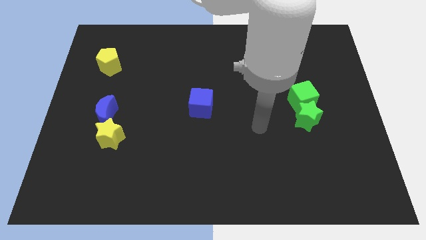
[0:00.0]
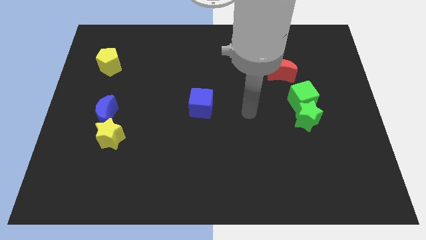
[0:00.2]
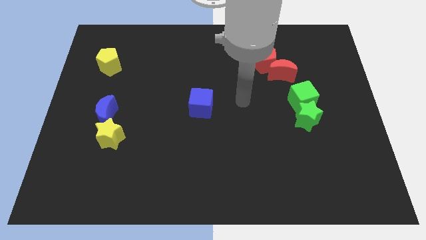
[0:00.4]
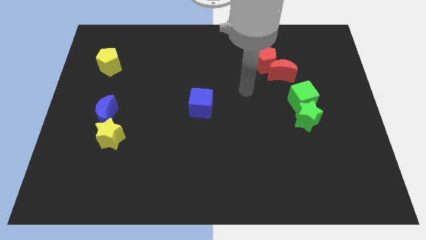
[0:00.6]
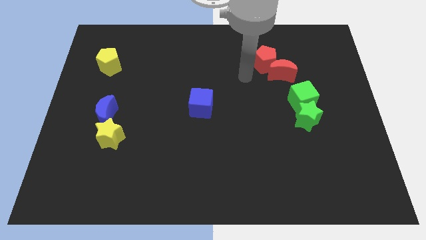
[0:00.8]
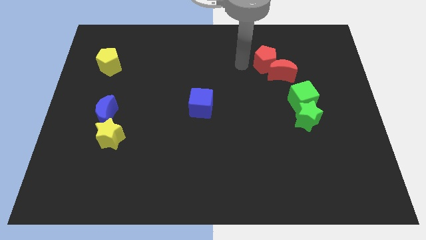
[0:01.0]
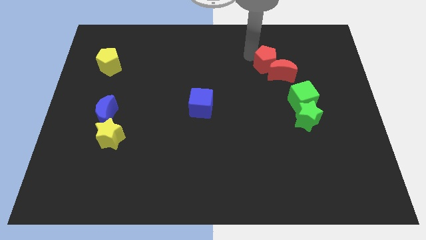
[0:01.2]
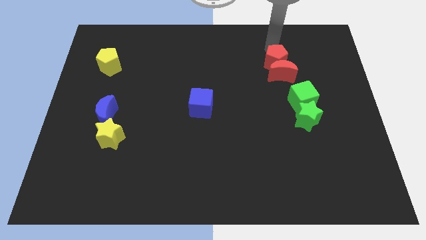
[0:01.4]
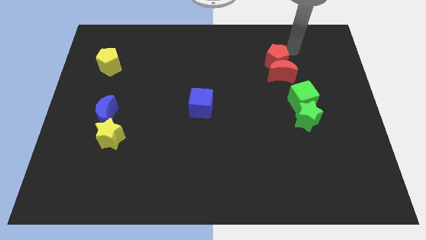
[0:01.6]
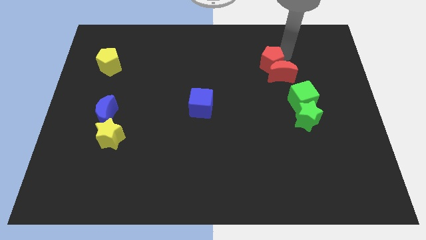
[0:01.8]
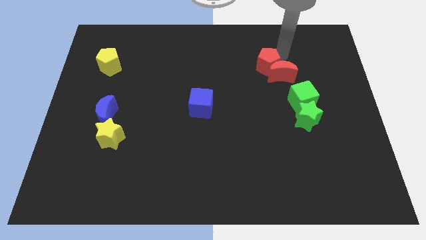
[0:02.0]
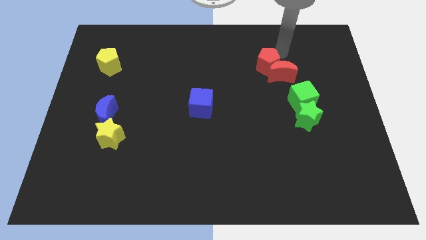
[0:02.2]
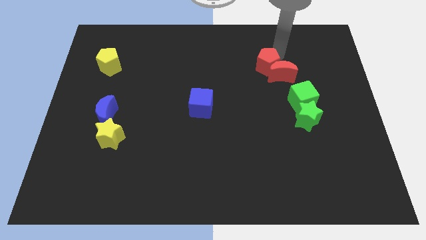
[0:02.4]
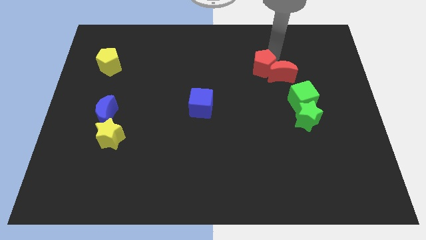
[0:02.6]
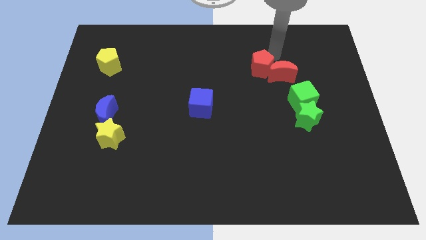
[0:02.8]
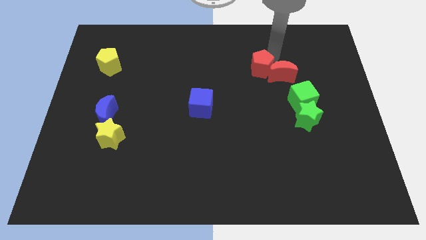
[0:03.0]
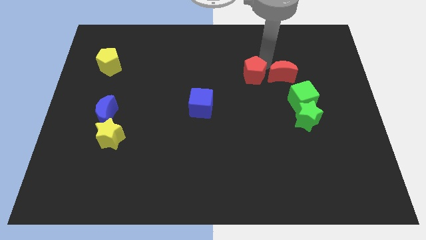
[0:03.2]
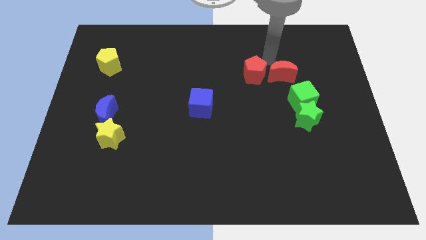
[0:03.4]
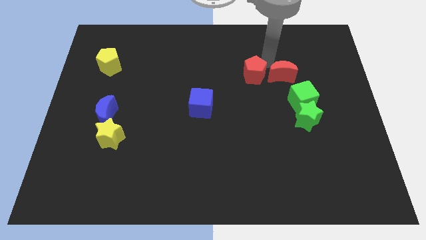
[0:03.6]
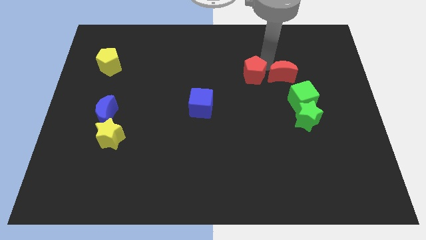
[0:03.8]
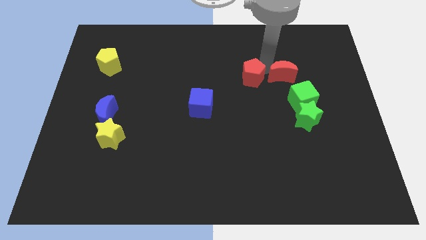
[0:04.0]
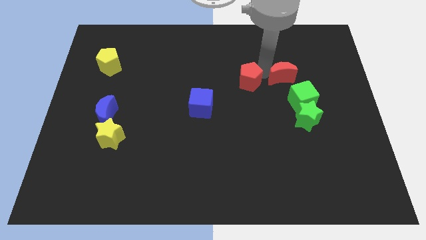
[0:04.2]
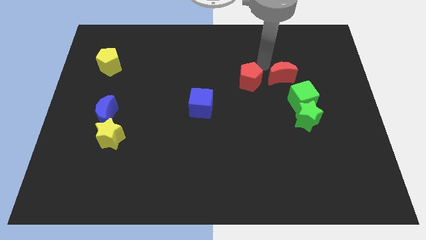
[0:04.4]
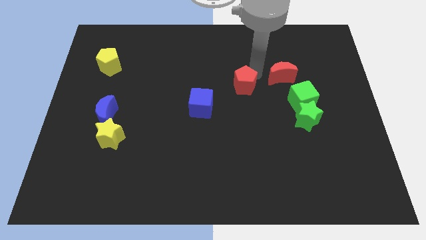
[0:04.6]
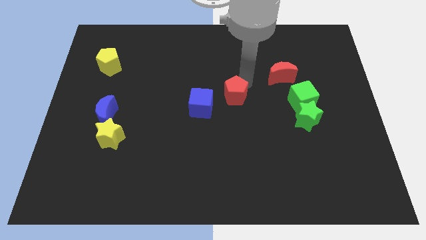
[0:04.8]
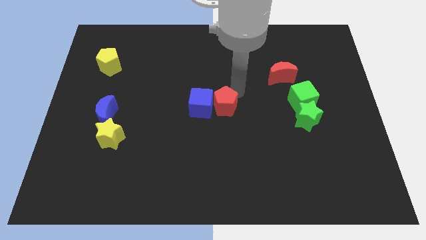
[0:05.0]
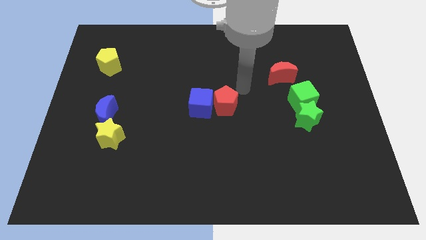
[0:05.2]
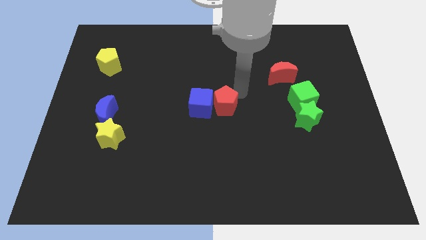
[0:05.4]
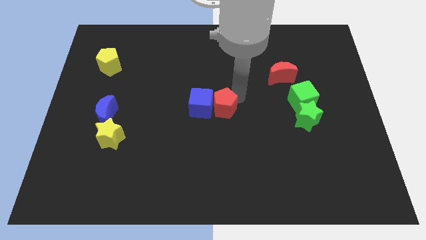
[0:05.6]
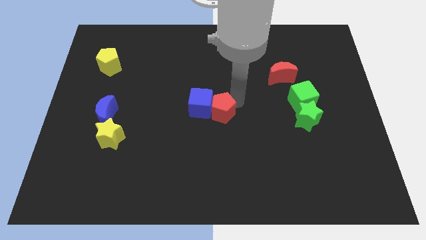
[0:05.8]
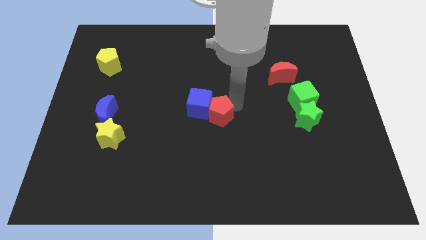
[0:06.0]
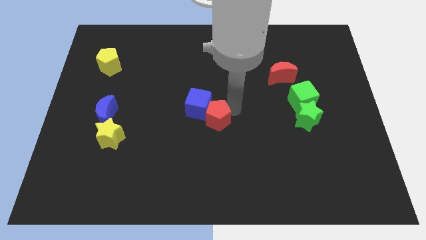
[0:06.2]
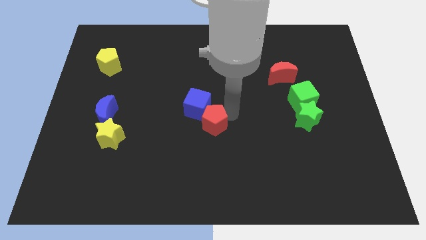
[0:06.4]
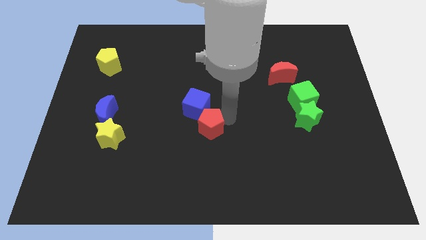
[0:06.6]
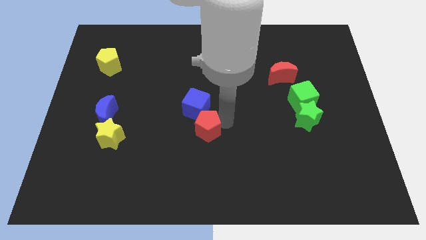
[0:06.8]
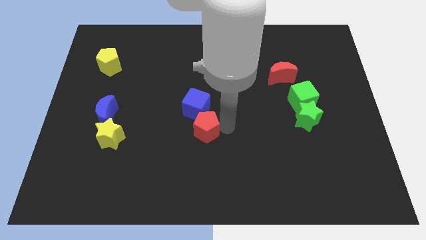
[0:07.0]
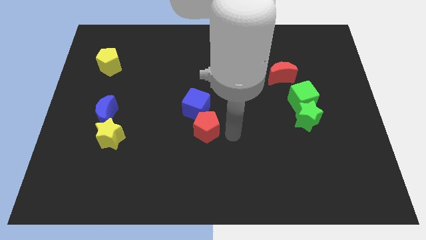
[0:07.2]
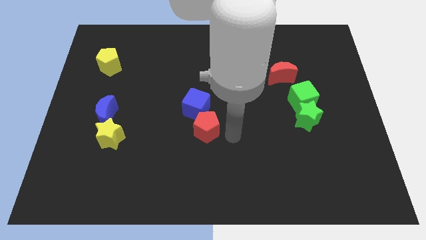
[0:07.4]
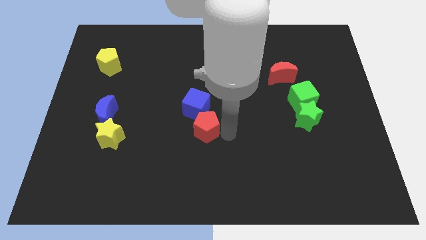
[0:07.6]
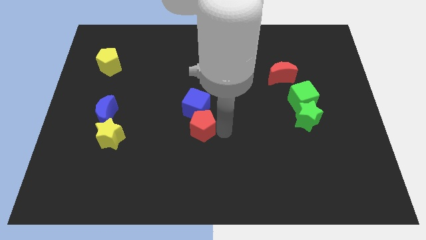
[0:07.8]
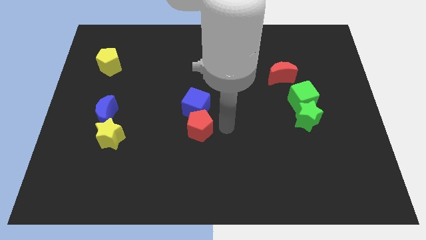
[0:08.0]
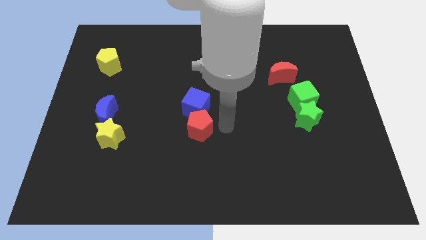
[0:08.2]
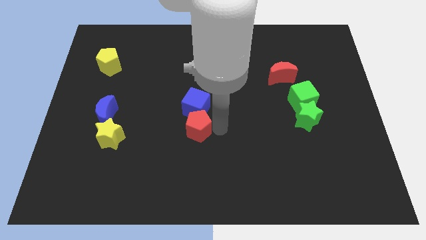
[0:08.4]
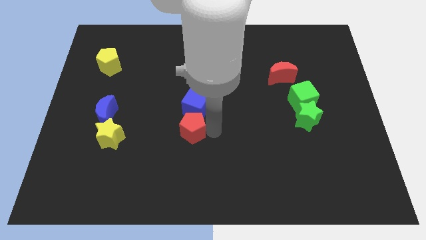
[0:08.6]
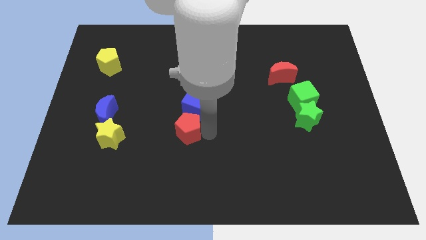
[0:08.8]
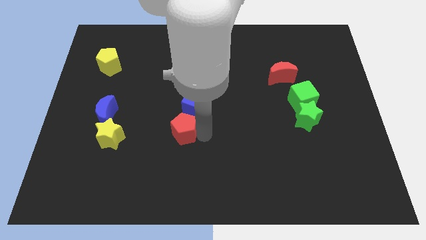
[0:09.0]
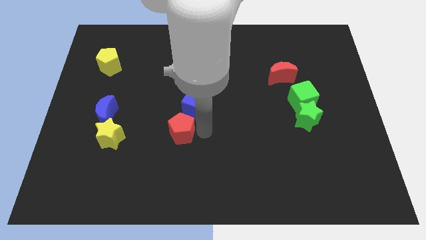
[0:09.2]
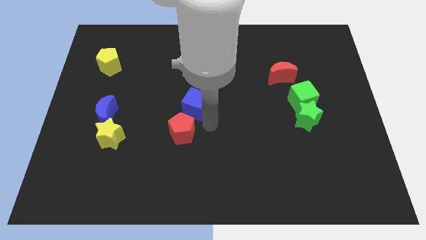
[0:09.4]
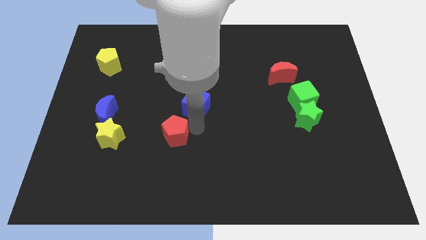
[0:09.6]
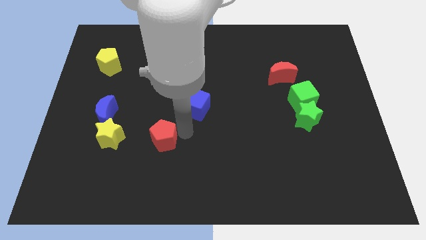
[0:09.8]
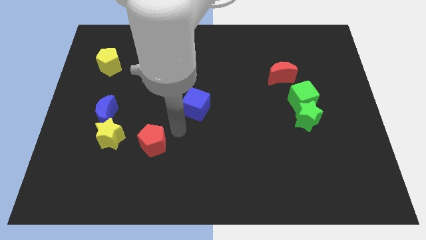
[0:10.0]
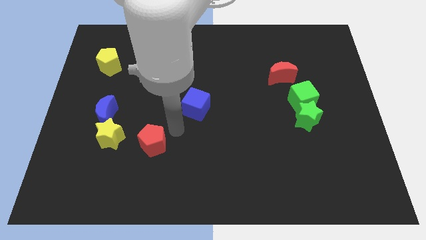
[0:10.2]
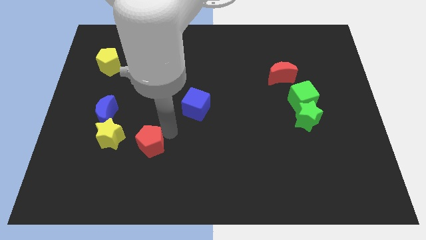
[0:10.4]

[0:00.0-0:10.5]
slide the red pentagon diagonally down and to the right of the yellow star

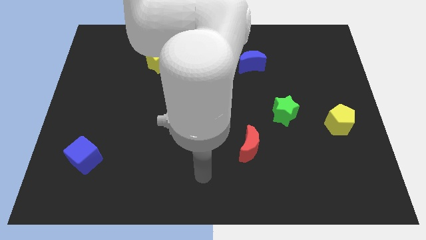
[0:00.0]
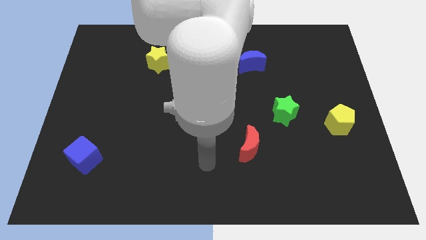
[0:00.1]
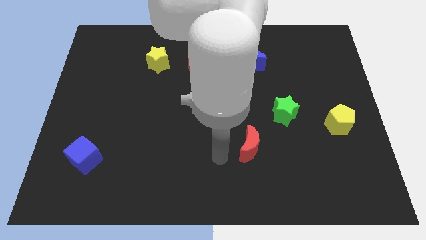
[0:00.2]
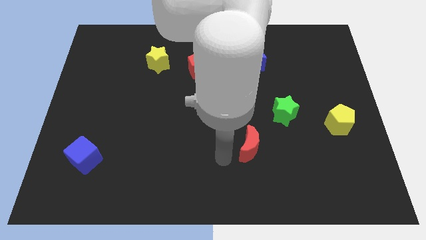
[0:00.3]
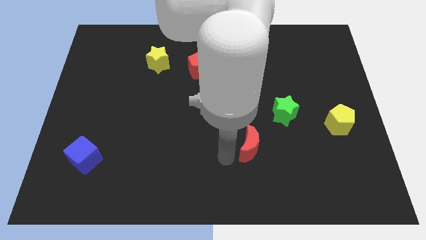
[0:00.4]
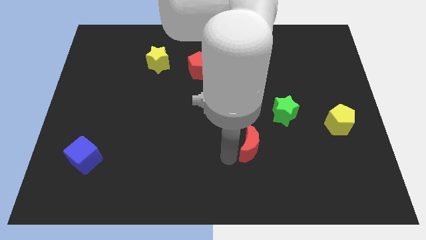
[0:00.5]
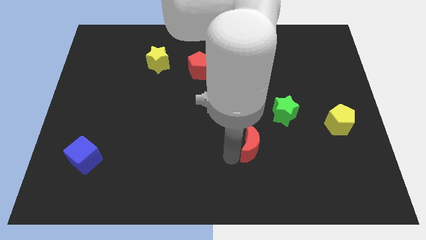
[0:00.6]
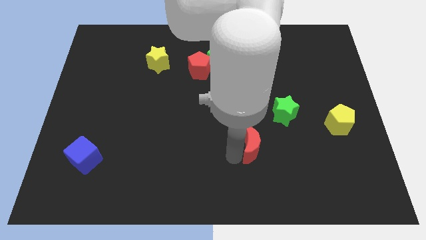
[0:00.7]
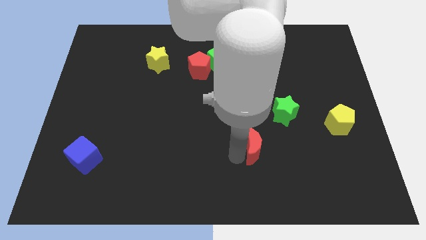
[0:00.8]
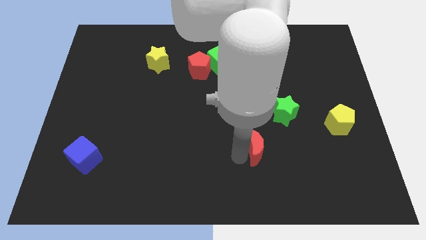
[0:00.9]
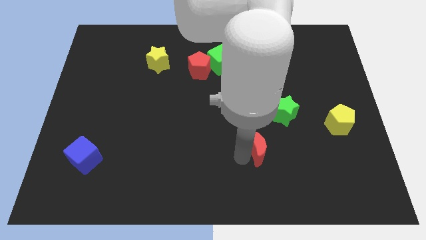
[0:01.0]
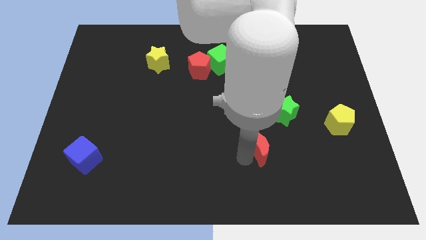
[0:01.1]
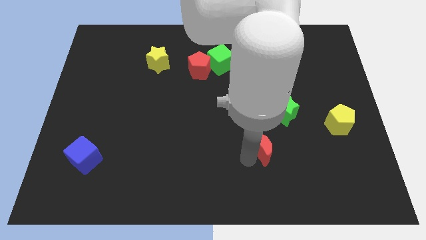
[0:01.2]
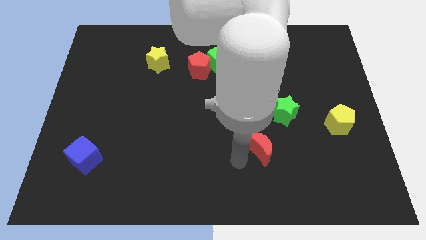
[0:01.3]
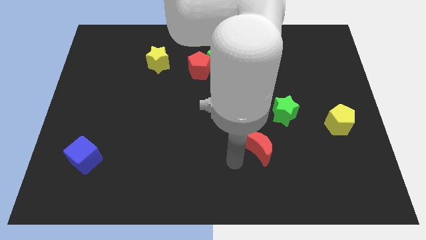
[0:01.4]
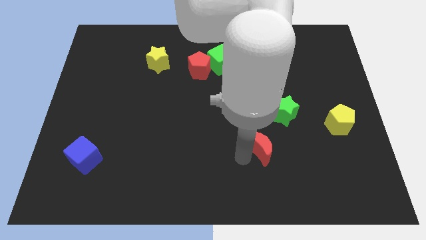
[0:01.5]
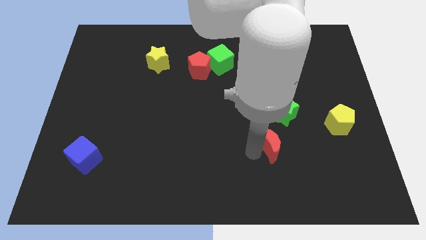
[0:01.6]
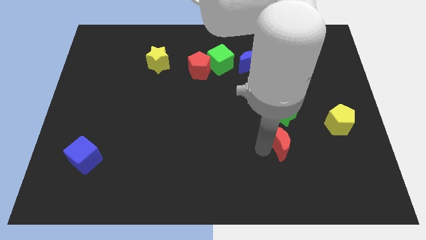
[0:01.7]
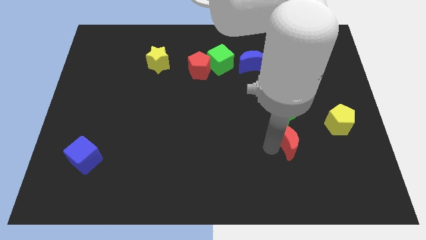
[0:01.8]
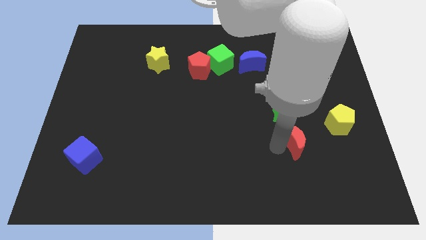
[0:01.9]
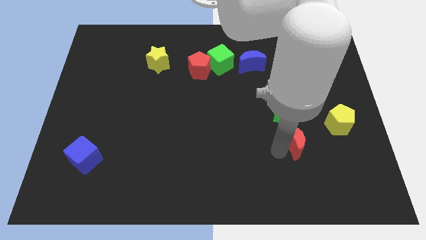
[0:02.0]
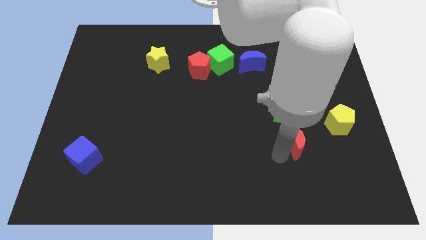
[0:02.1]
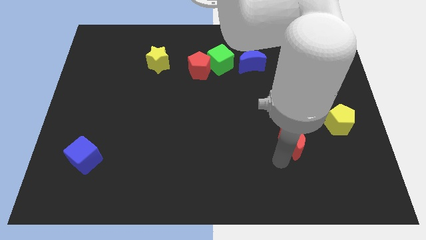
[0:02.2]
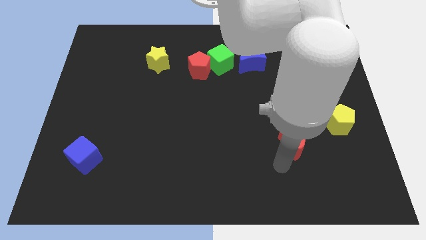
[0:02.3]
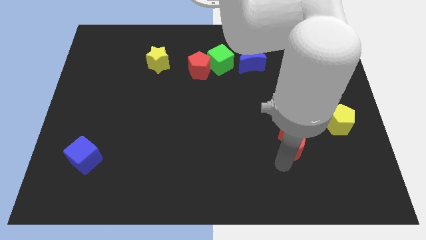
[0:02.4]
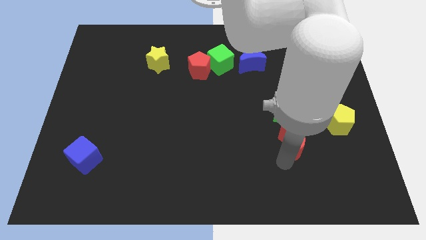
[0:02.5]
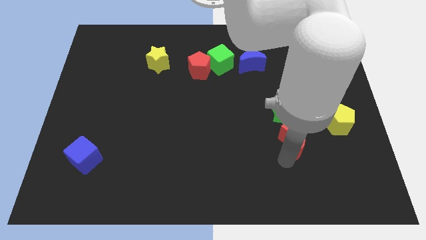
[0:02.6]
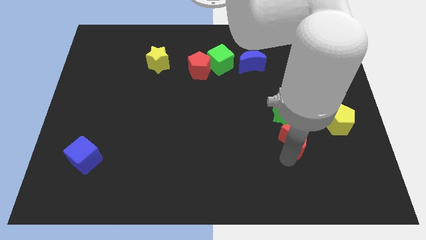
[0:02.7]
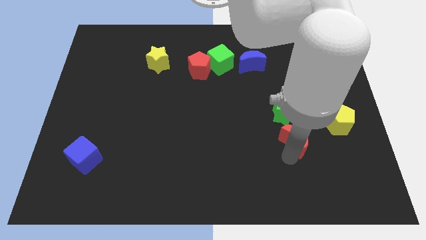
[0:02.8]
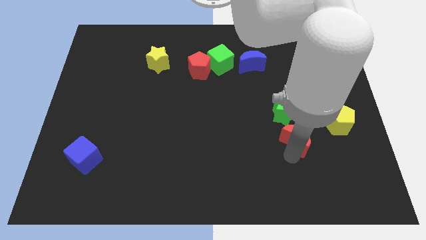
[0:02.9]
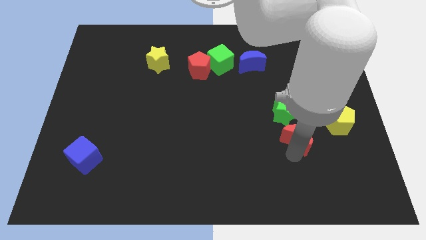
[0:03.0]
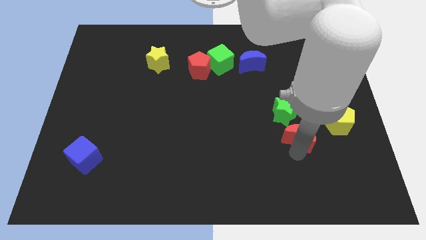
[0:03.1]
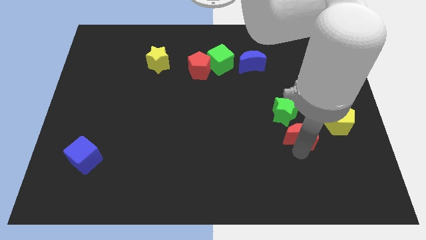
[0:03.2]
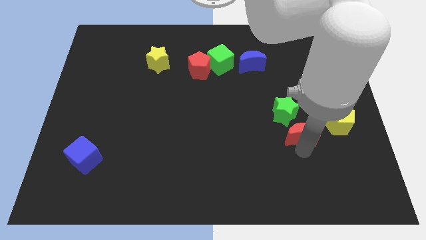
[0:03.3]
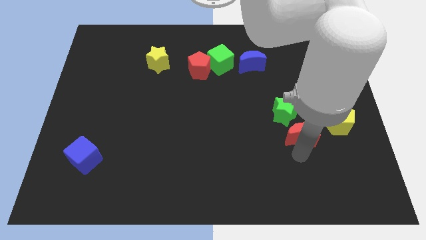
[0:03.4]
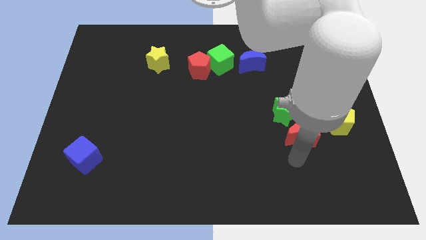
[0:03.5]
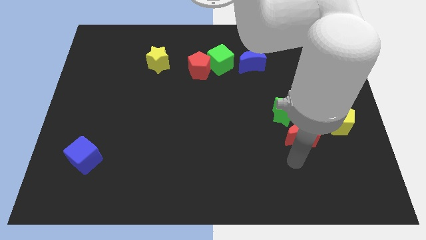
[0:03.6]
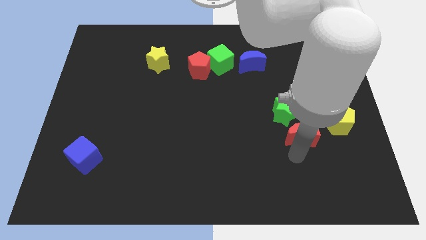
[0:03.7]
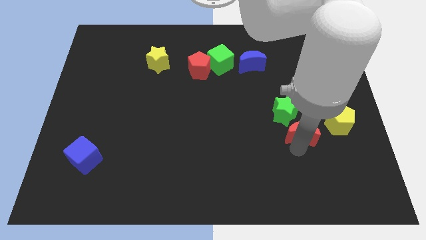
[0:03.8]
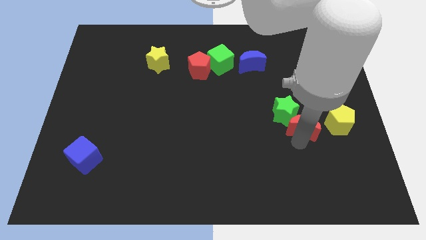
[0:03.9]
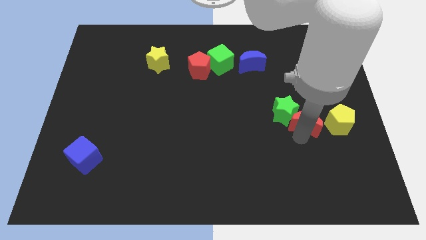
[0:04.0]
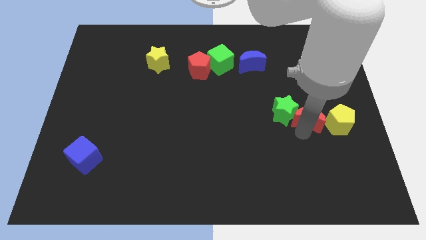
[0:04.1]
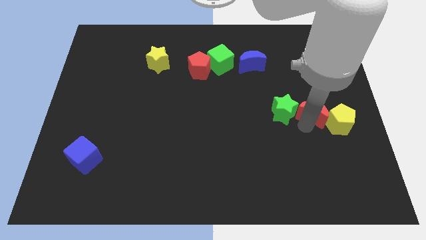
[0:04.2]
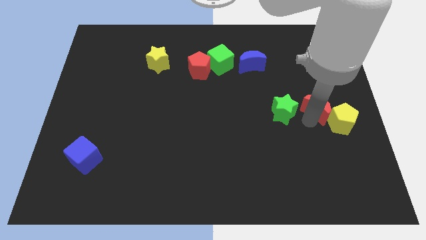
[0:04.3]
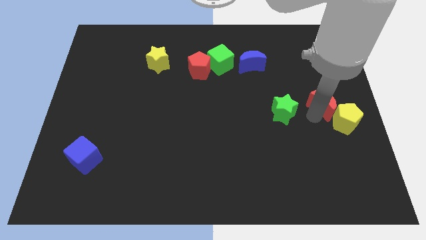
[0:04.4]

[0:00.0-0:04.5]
put the red moon to the top side of the yellow pentagon
